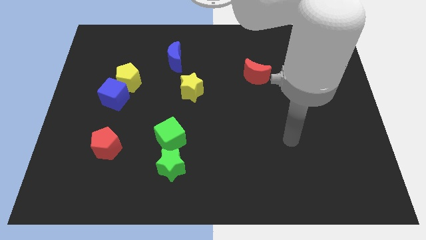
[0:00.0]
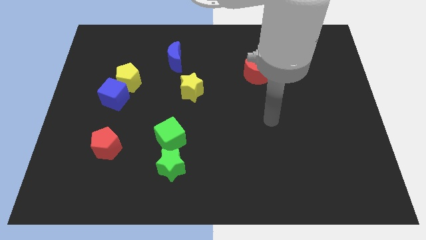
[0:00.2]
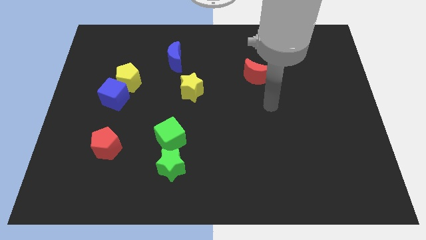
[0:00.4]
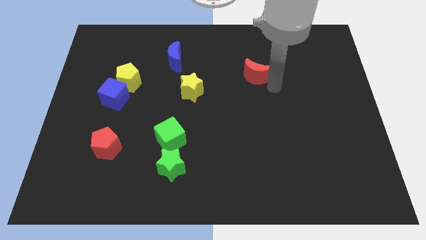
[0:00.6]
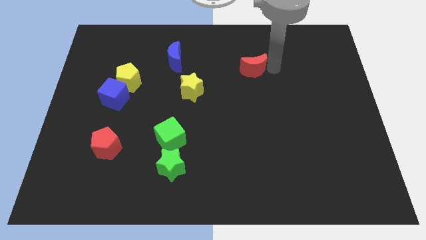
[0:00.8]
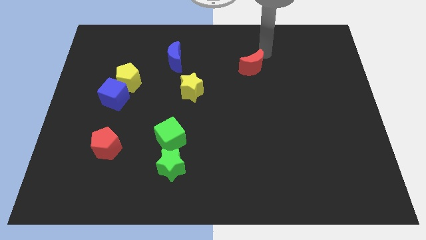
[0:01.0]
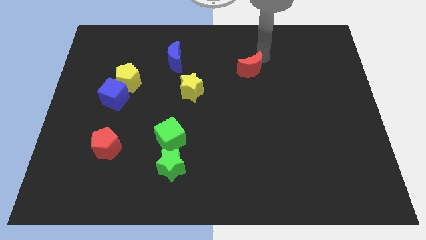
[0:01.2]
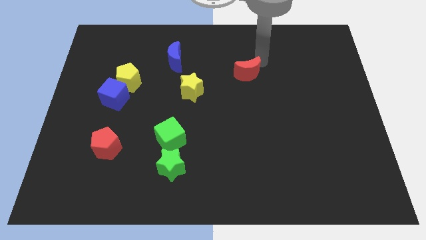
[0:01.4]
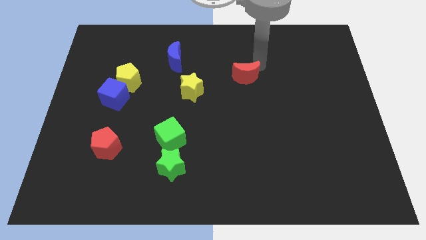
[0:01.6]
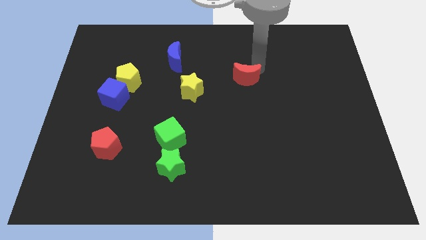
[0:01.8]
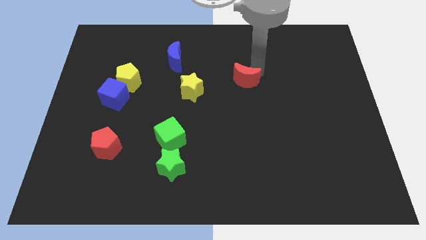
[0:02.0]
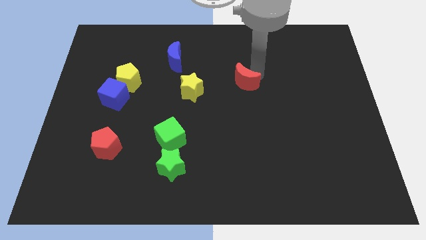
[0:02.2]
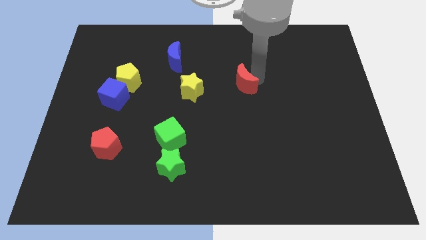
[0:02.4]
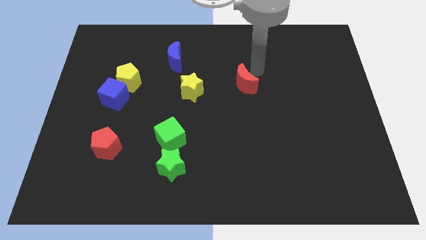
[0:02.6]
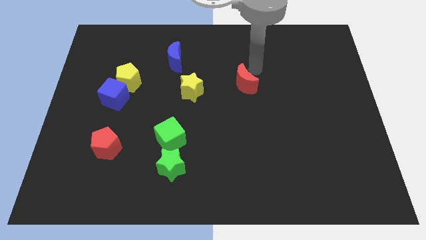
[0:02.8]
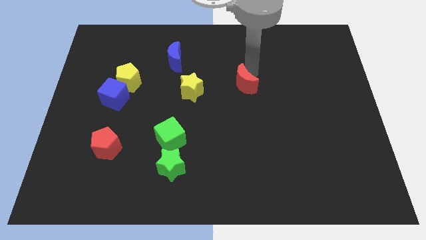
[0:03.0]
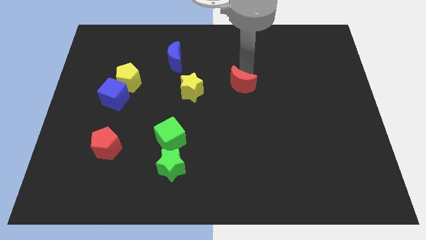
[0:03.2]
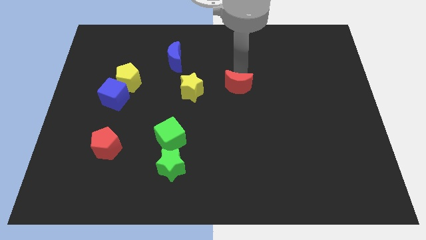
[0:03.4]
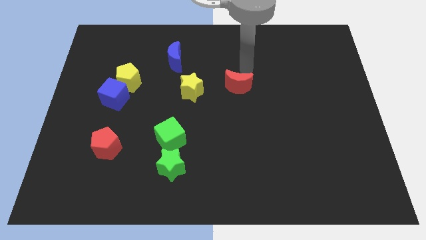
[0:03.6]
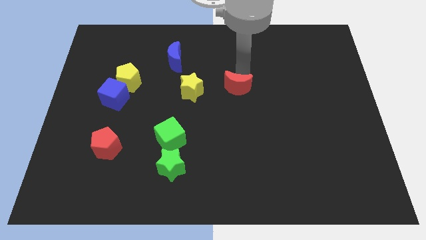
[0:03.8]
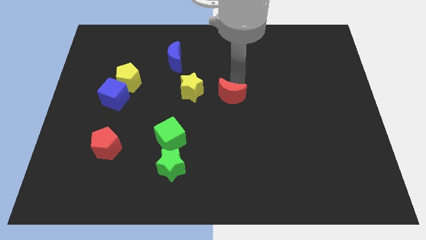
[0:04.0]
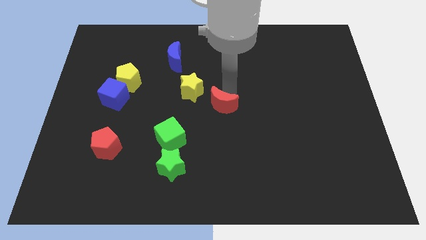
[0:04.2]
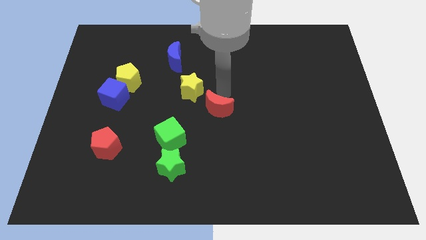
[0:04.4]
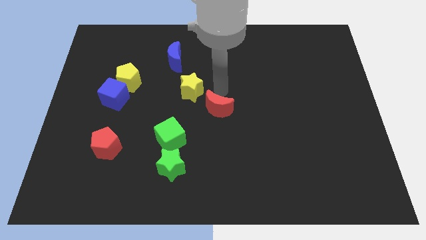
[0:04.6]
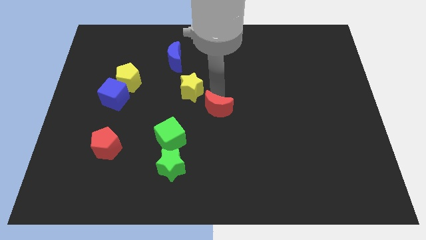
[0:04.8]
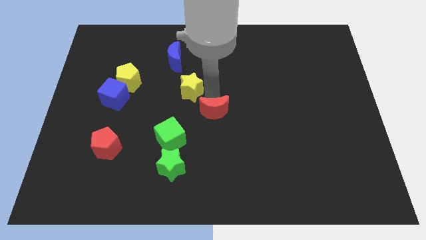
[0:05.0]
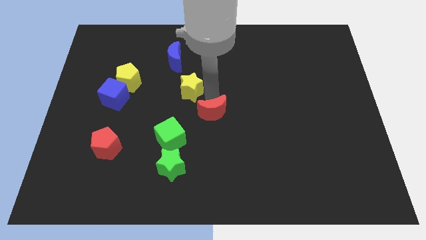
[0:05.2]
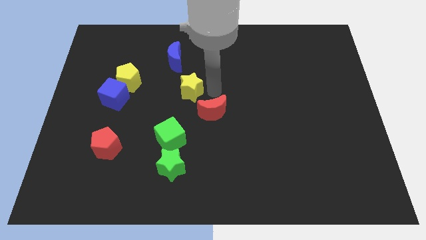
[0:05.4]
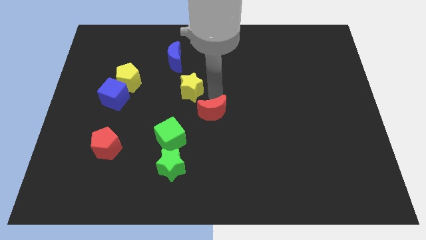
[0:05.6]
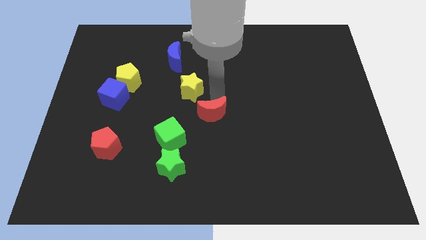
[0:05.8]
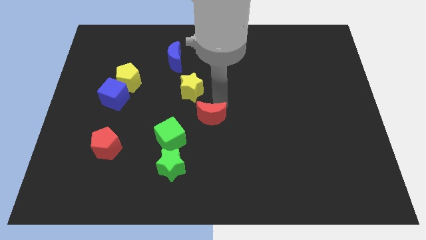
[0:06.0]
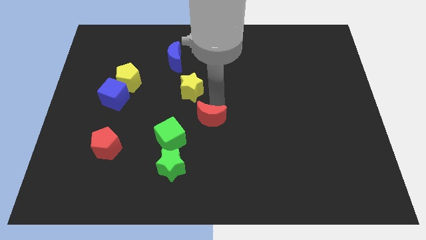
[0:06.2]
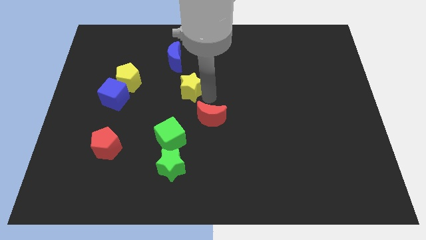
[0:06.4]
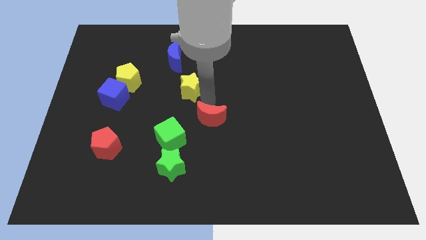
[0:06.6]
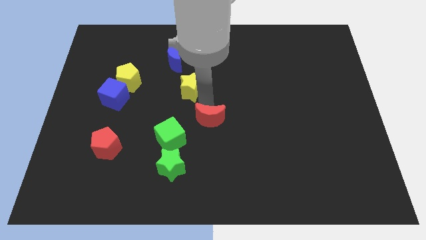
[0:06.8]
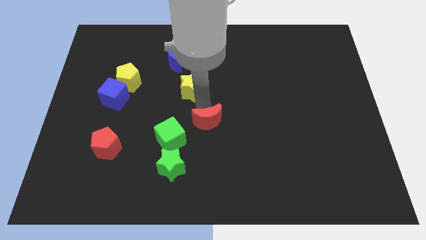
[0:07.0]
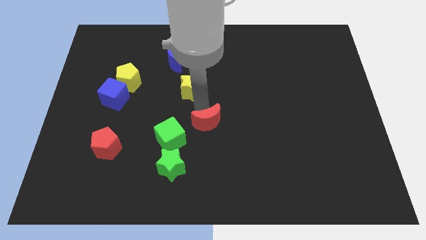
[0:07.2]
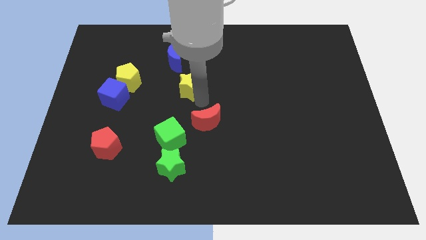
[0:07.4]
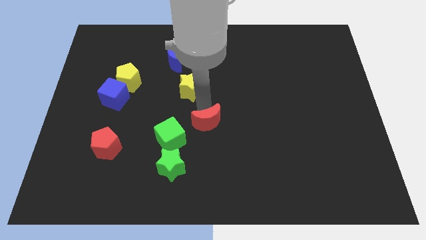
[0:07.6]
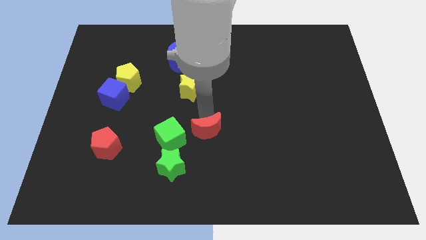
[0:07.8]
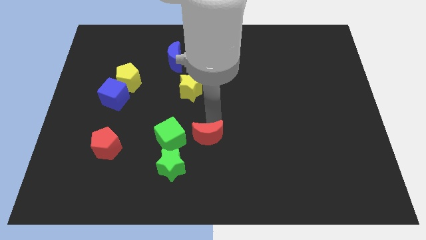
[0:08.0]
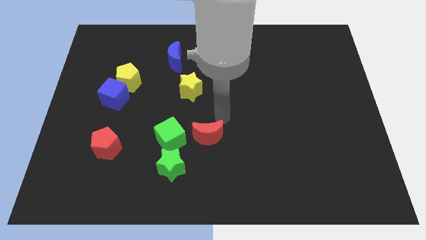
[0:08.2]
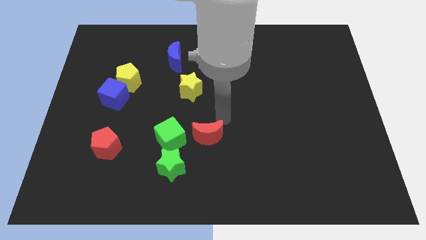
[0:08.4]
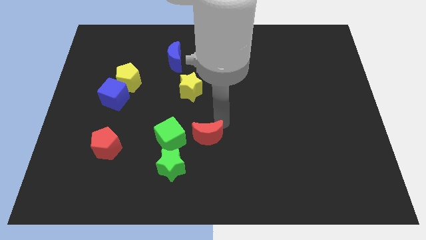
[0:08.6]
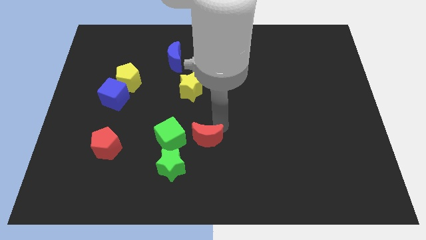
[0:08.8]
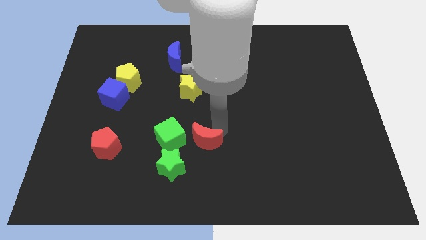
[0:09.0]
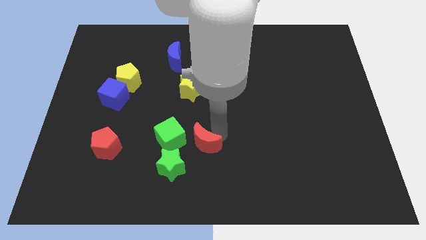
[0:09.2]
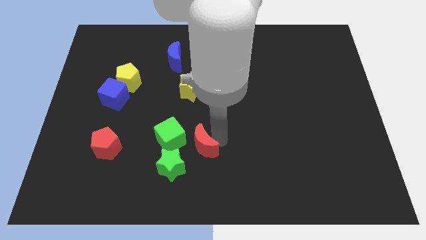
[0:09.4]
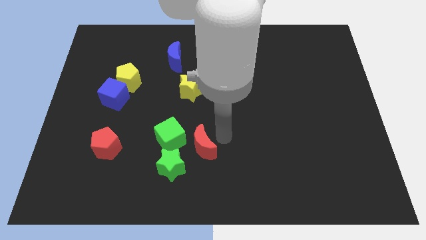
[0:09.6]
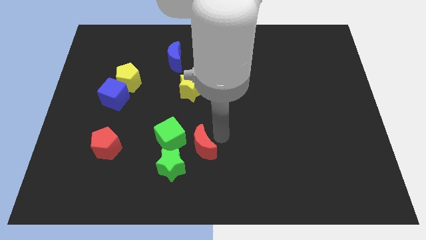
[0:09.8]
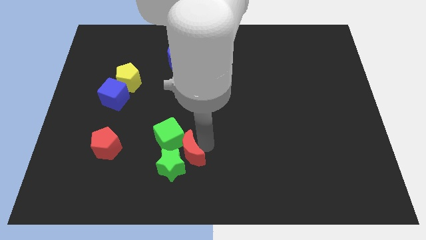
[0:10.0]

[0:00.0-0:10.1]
push the red moon next to the green star

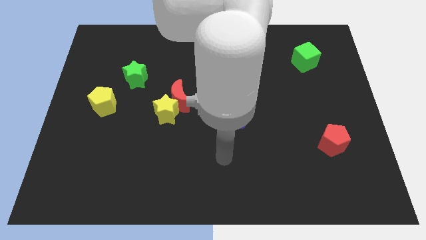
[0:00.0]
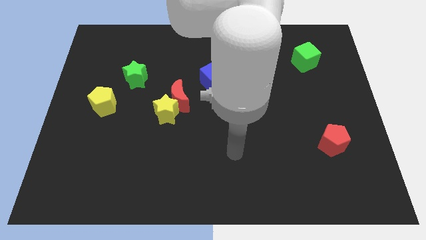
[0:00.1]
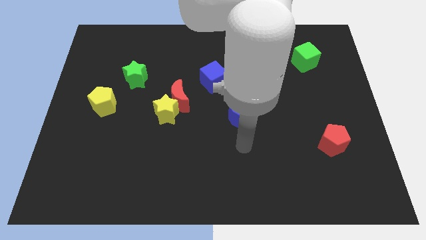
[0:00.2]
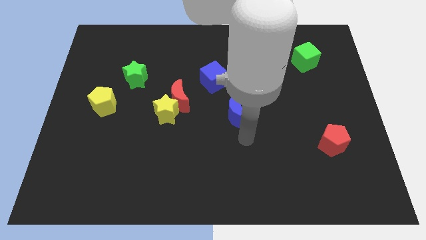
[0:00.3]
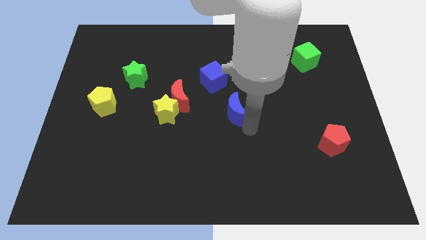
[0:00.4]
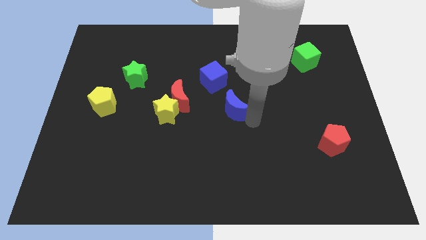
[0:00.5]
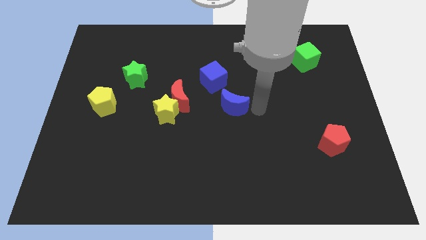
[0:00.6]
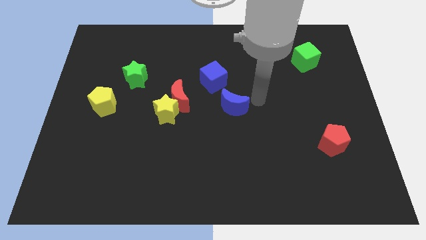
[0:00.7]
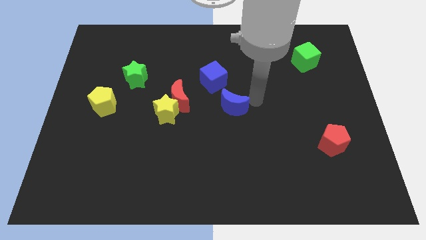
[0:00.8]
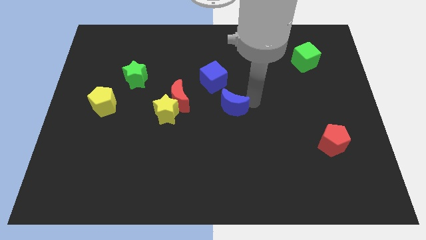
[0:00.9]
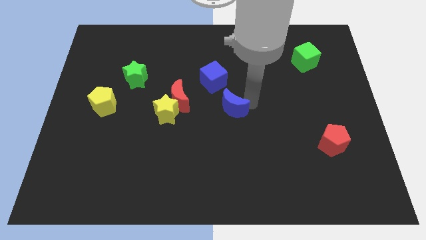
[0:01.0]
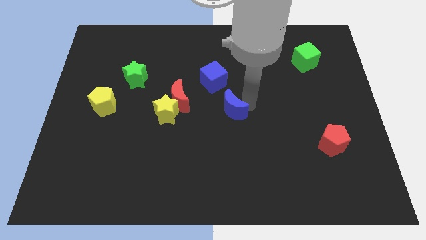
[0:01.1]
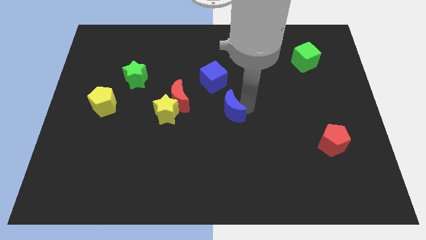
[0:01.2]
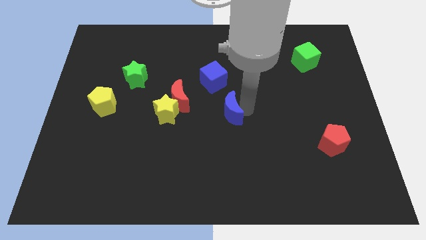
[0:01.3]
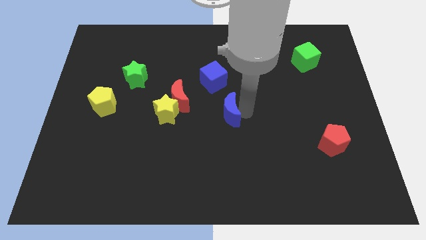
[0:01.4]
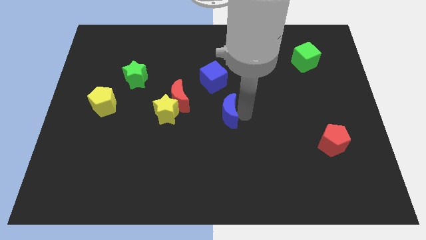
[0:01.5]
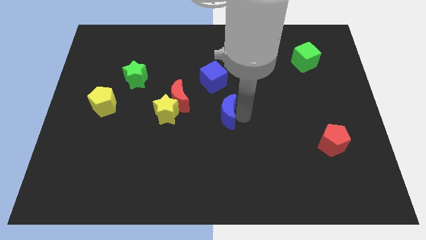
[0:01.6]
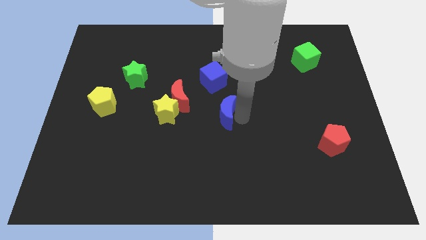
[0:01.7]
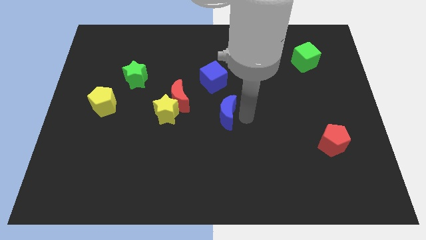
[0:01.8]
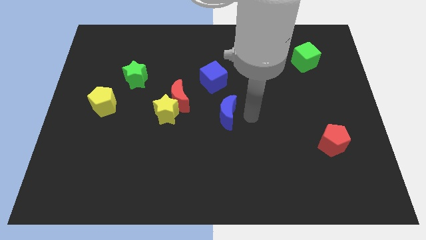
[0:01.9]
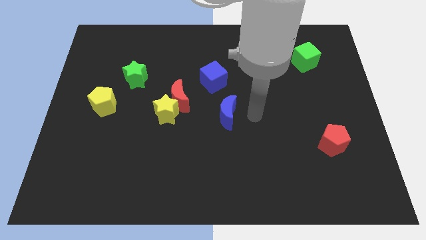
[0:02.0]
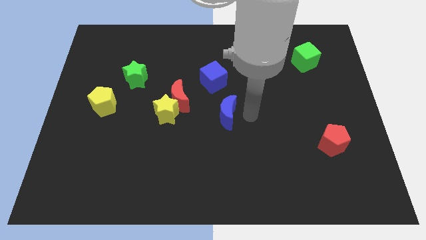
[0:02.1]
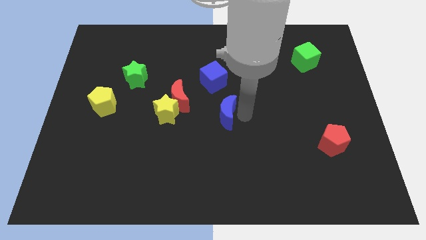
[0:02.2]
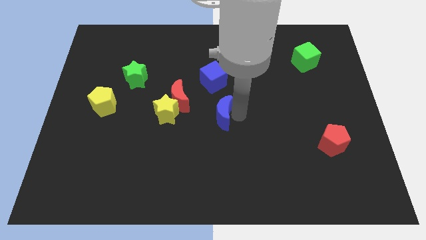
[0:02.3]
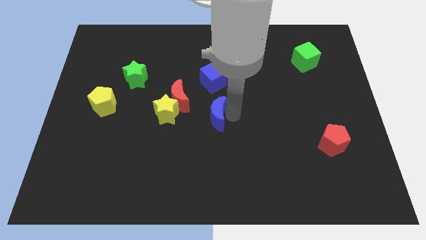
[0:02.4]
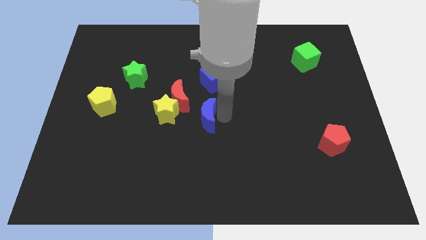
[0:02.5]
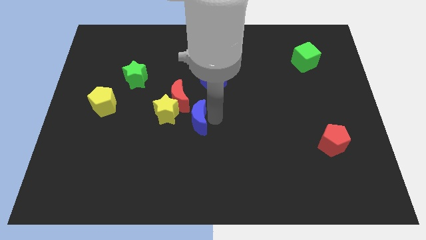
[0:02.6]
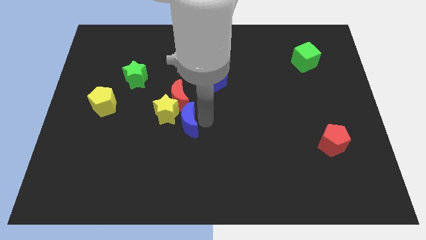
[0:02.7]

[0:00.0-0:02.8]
push the blue moon towards the yellow star
